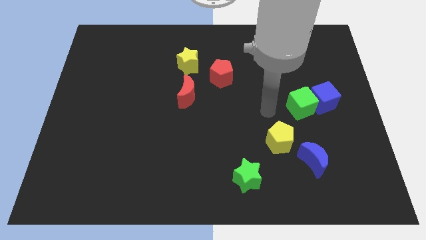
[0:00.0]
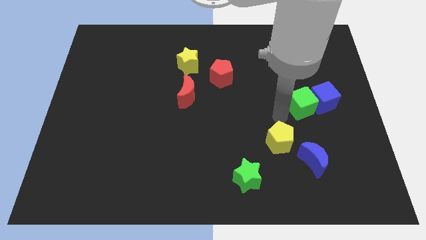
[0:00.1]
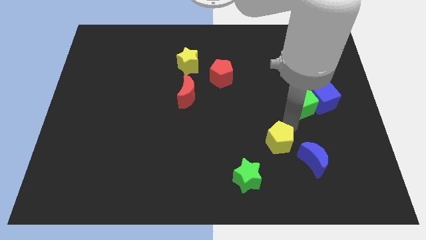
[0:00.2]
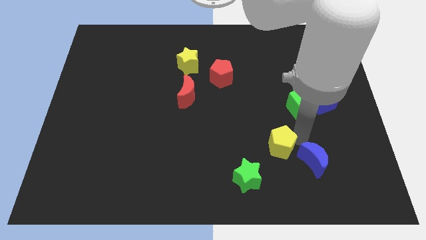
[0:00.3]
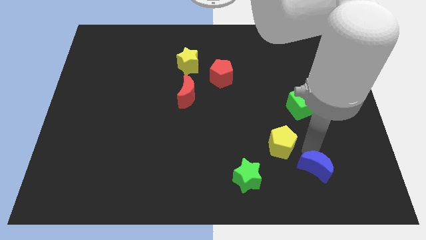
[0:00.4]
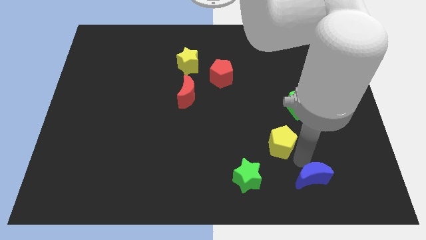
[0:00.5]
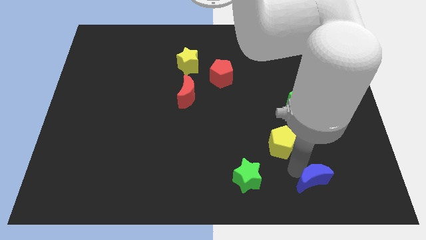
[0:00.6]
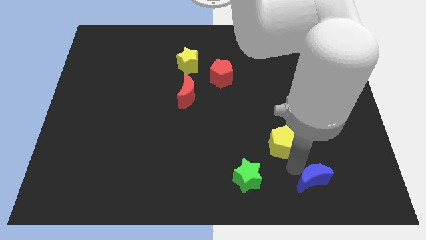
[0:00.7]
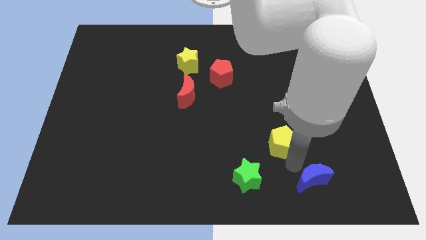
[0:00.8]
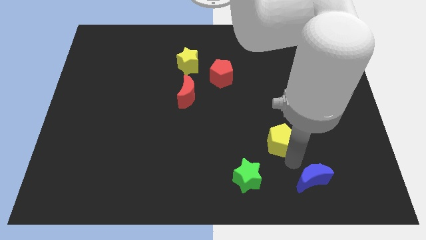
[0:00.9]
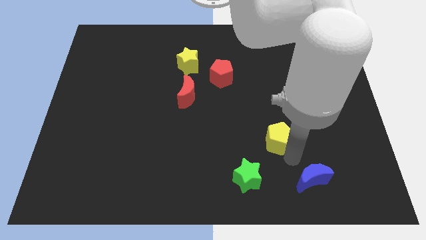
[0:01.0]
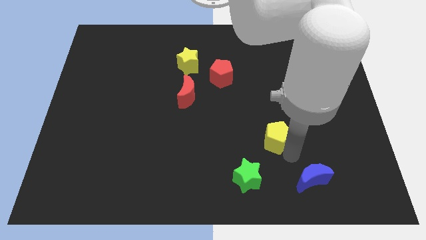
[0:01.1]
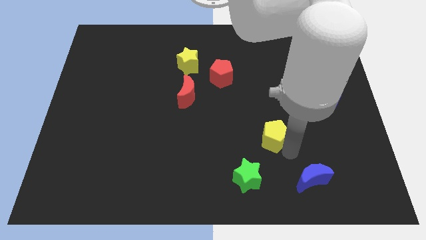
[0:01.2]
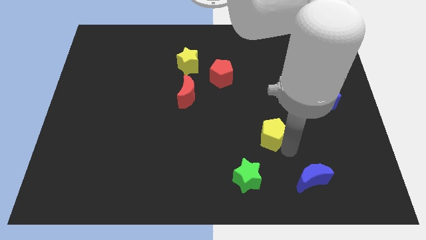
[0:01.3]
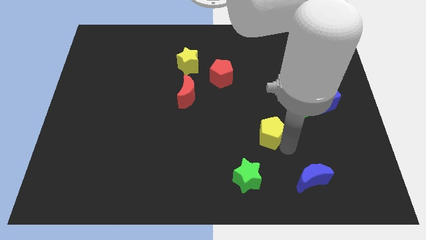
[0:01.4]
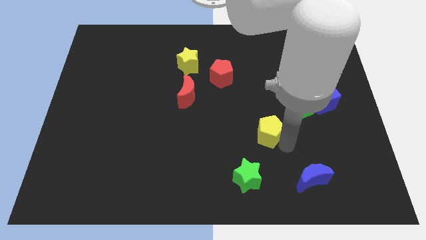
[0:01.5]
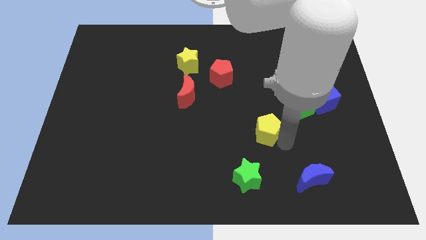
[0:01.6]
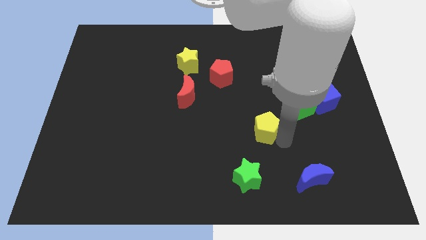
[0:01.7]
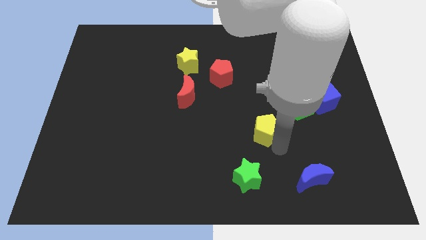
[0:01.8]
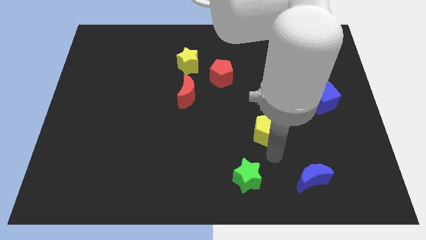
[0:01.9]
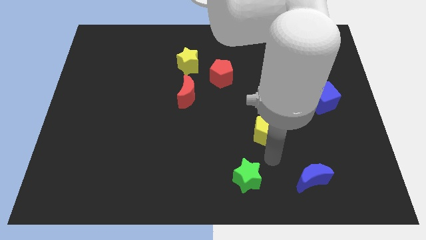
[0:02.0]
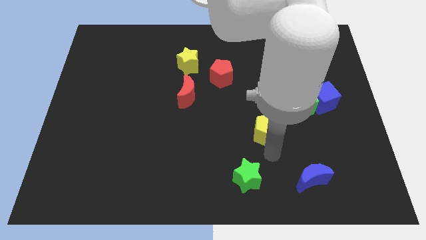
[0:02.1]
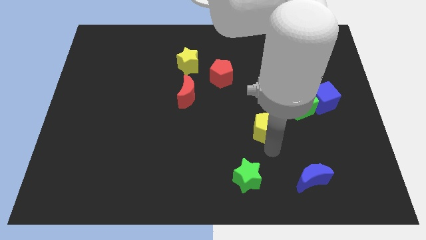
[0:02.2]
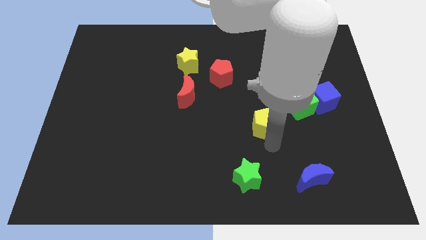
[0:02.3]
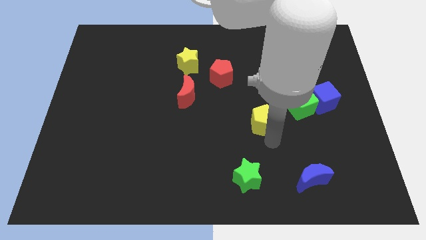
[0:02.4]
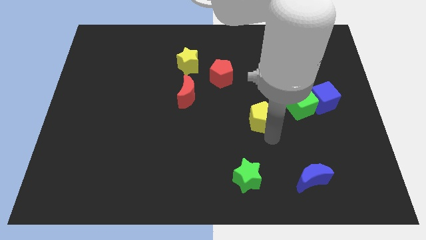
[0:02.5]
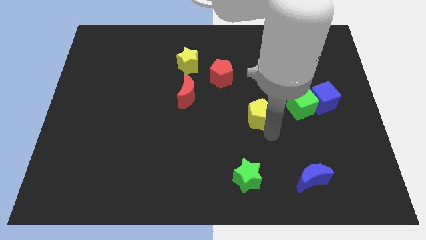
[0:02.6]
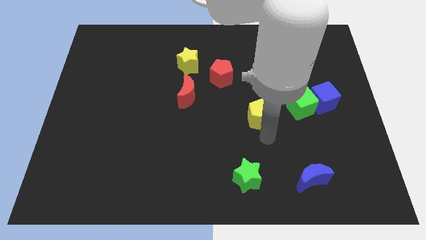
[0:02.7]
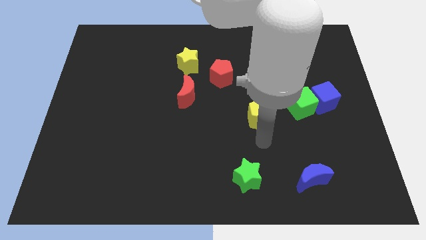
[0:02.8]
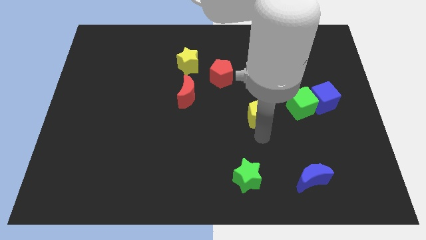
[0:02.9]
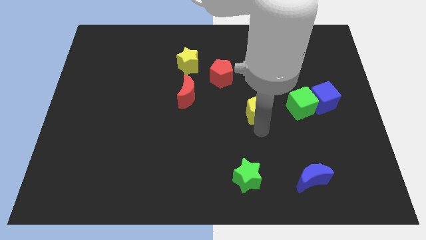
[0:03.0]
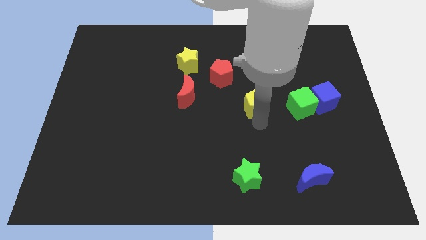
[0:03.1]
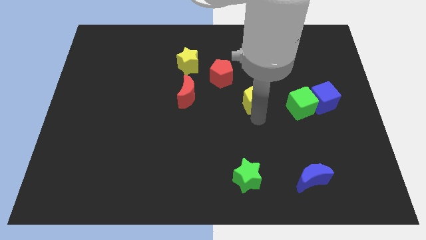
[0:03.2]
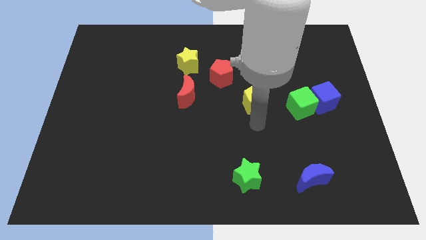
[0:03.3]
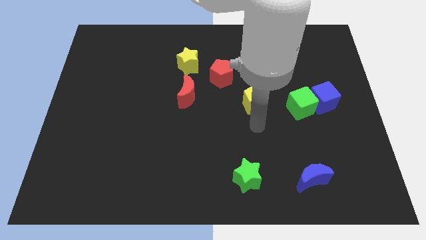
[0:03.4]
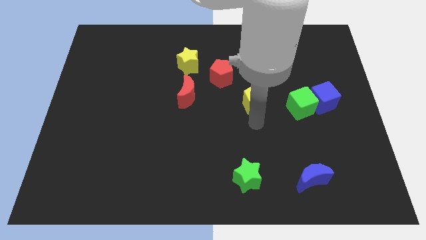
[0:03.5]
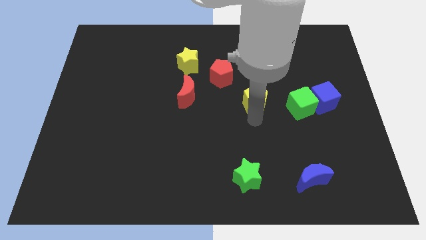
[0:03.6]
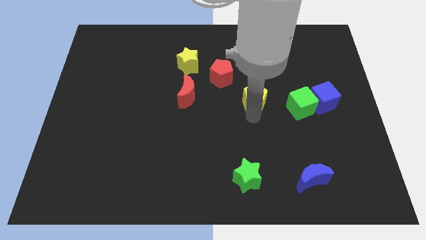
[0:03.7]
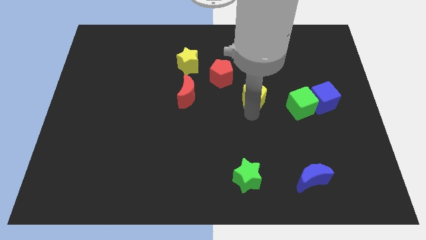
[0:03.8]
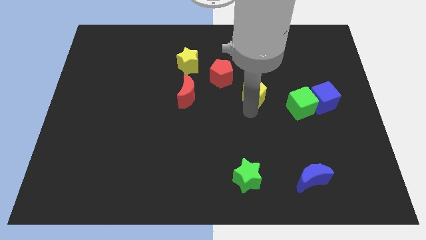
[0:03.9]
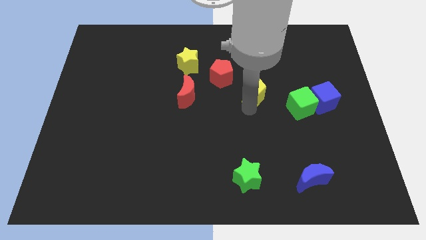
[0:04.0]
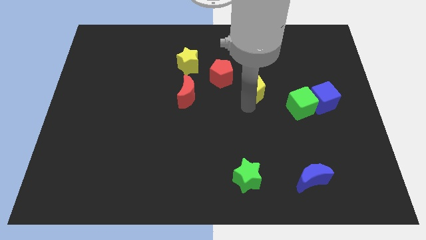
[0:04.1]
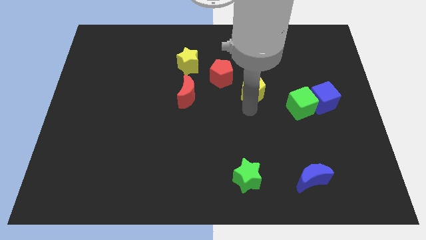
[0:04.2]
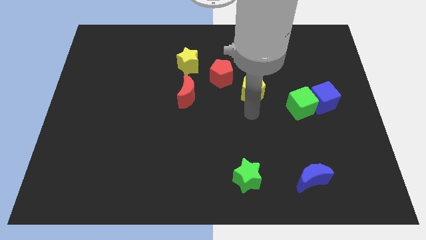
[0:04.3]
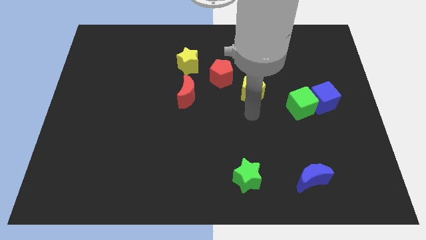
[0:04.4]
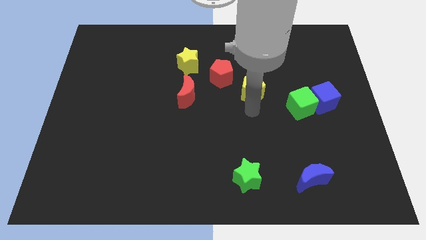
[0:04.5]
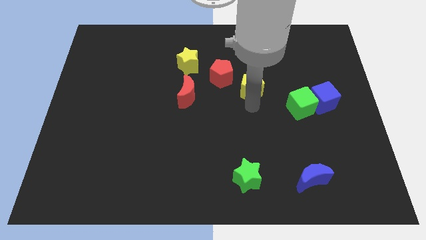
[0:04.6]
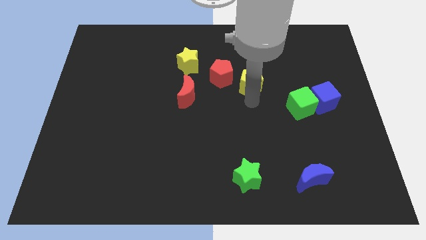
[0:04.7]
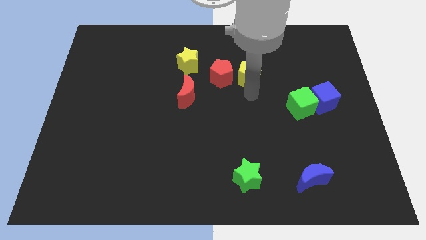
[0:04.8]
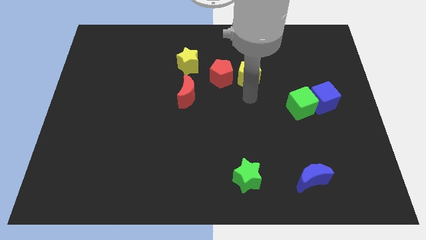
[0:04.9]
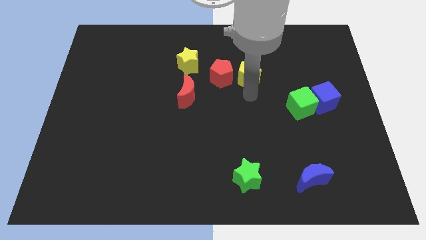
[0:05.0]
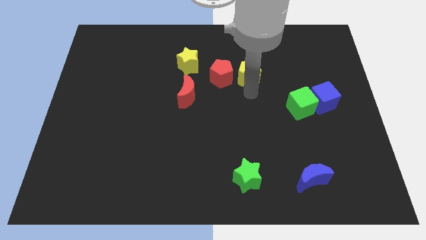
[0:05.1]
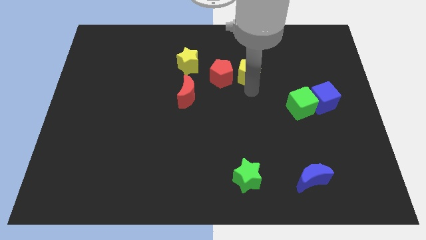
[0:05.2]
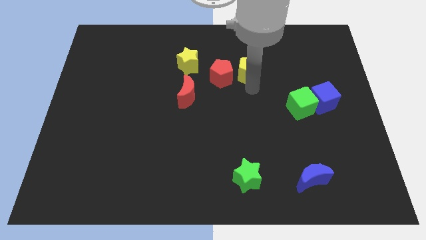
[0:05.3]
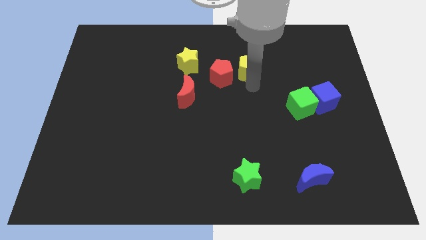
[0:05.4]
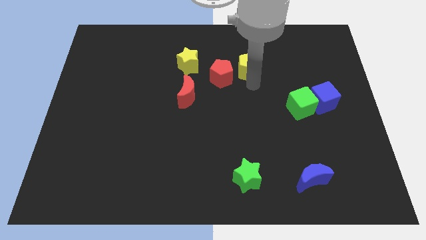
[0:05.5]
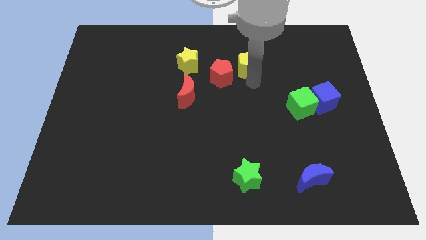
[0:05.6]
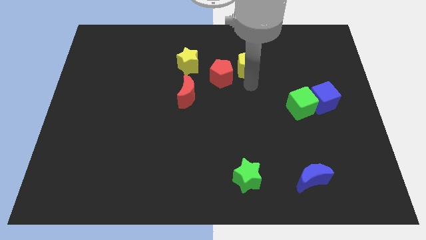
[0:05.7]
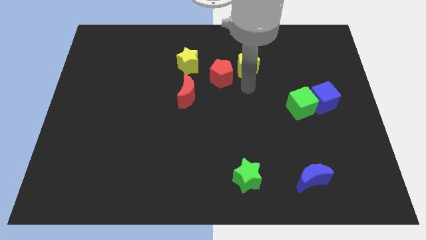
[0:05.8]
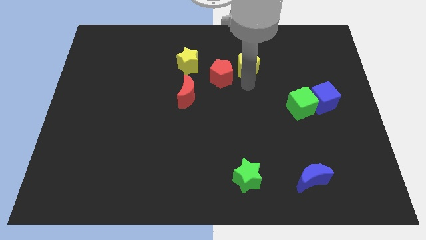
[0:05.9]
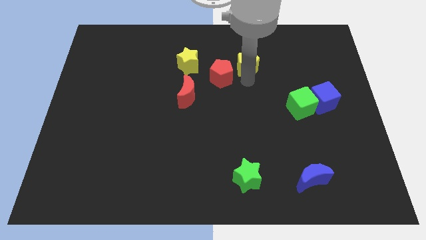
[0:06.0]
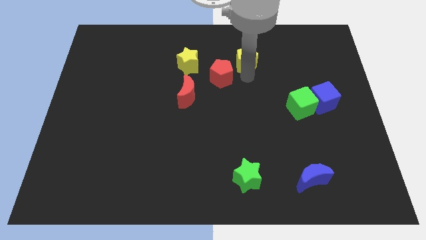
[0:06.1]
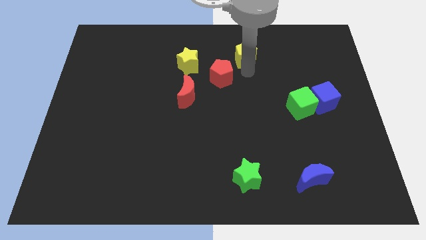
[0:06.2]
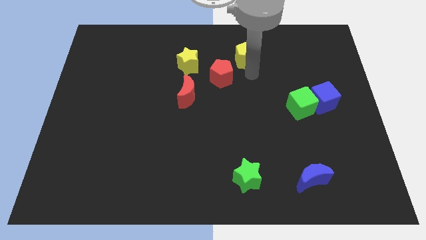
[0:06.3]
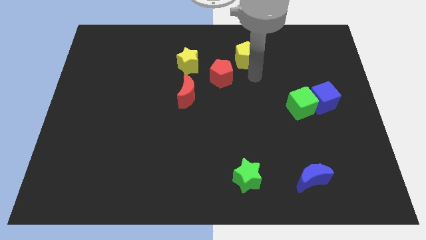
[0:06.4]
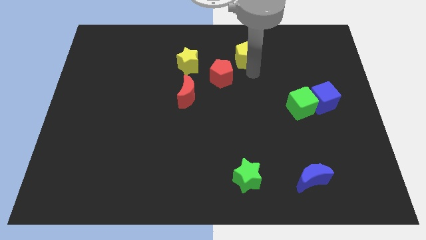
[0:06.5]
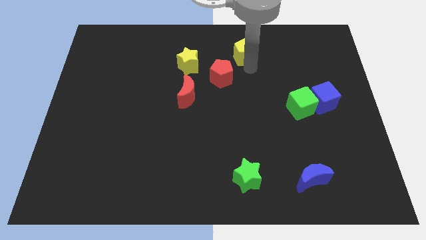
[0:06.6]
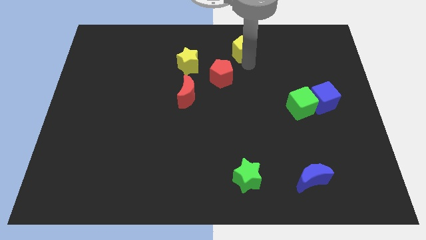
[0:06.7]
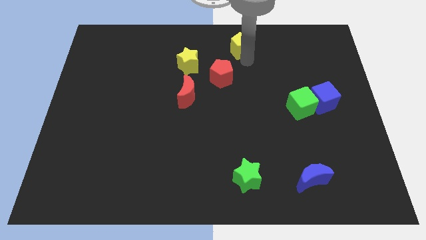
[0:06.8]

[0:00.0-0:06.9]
put the yellow pentagon to the towards your base

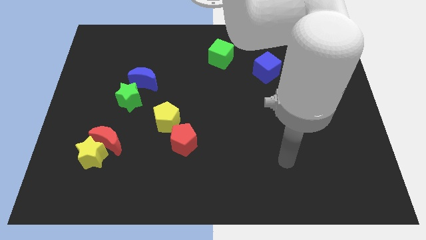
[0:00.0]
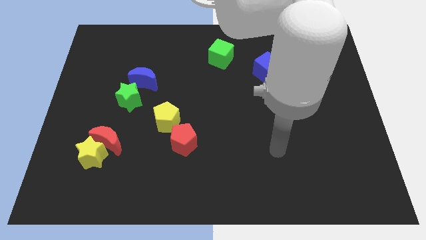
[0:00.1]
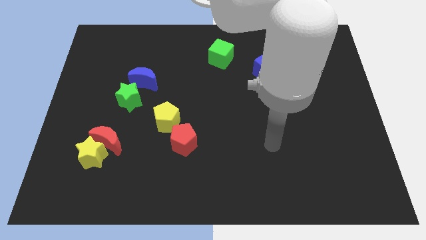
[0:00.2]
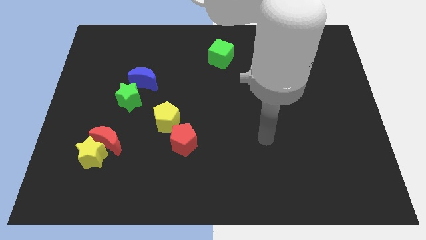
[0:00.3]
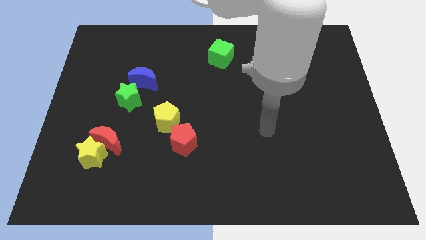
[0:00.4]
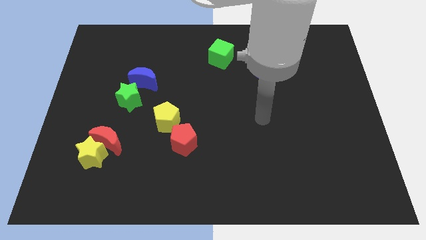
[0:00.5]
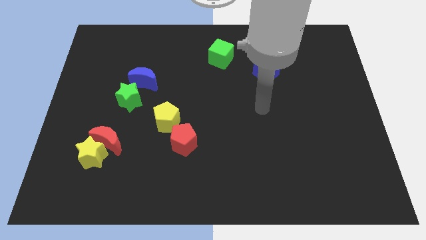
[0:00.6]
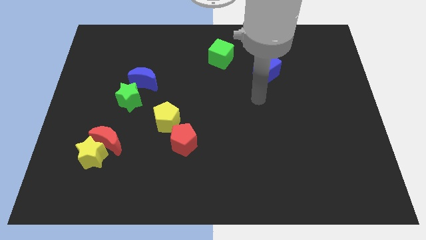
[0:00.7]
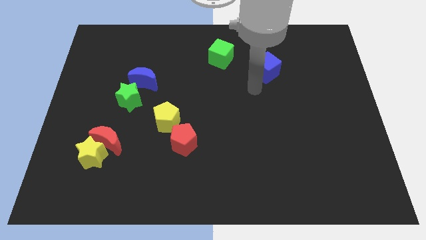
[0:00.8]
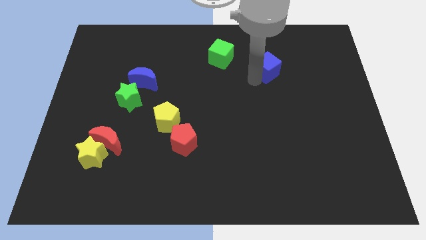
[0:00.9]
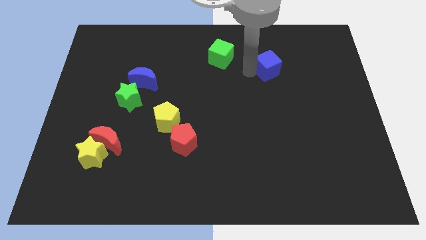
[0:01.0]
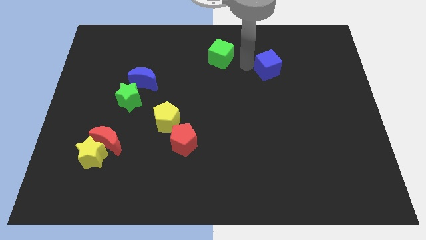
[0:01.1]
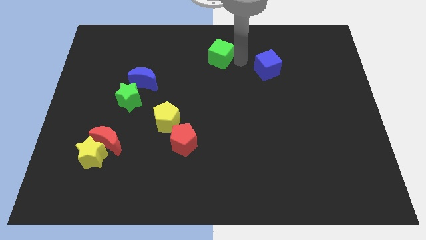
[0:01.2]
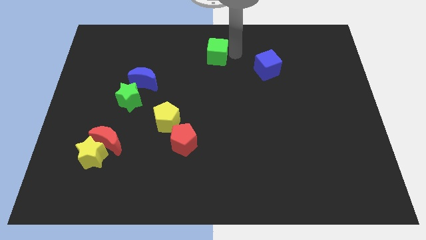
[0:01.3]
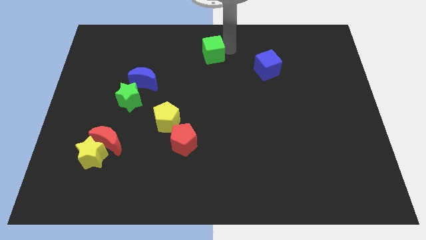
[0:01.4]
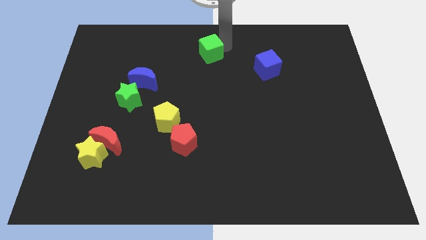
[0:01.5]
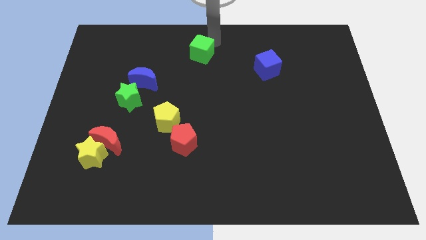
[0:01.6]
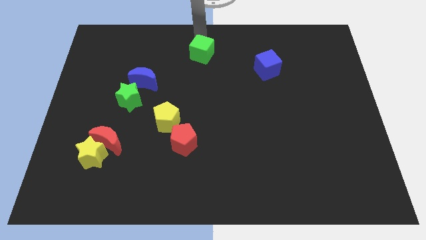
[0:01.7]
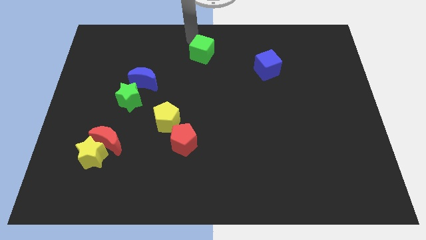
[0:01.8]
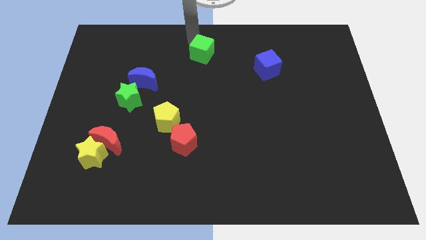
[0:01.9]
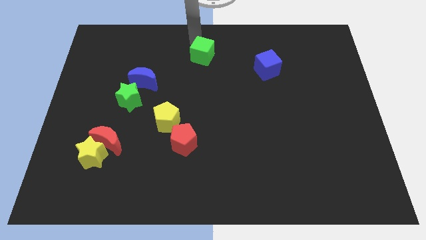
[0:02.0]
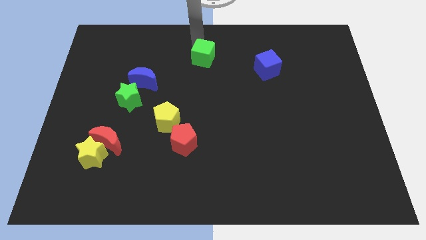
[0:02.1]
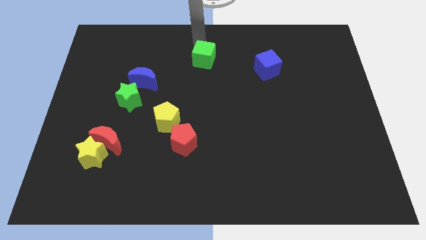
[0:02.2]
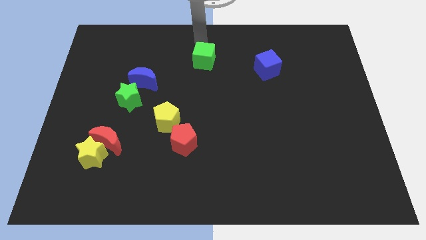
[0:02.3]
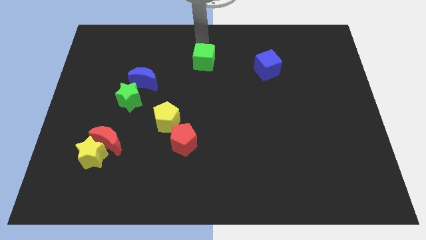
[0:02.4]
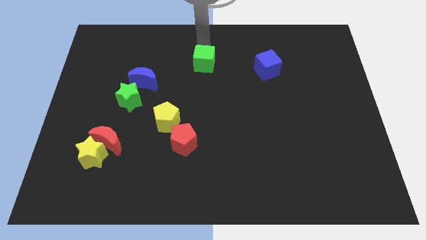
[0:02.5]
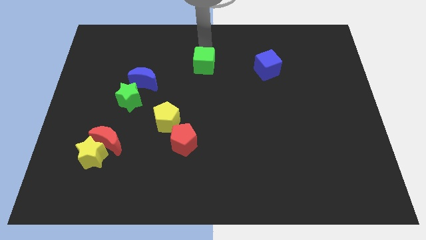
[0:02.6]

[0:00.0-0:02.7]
put the green cube to the center
